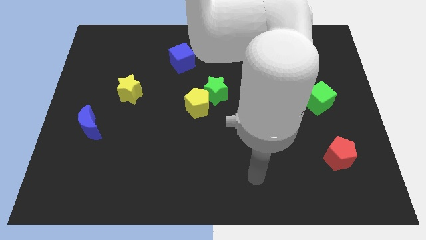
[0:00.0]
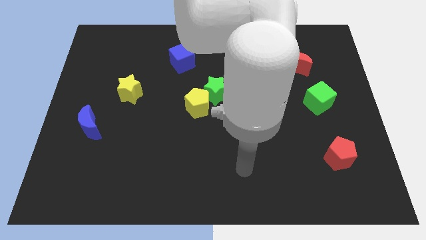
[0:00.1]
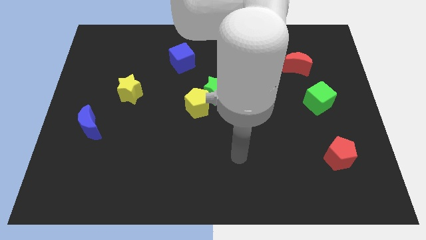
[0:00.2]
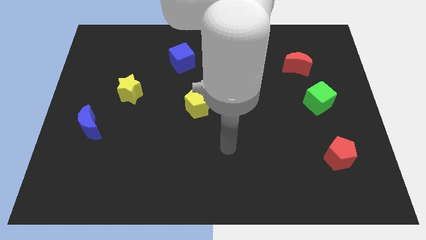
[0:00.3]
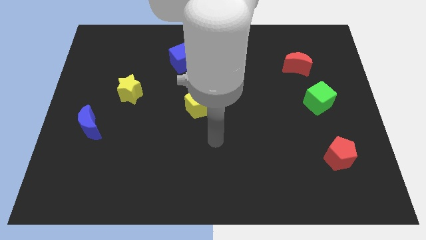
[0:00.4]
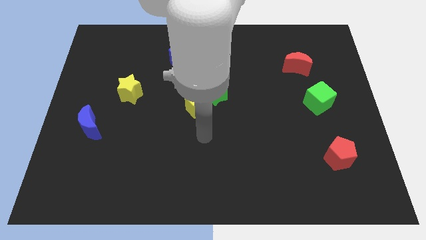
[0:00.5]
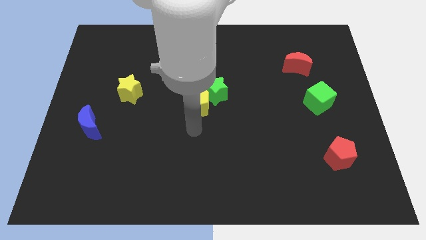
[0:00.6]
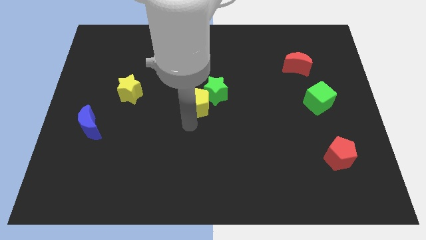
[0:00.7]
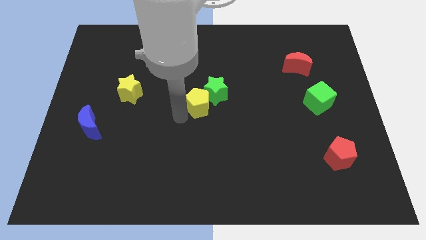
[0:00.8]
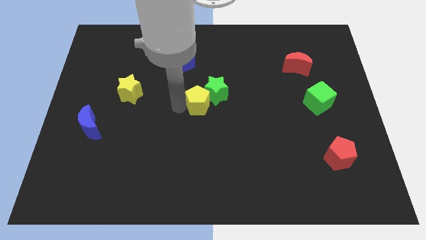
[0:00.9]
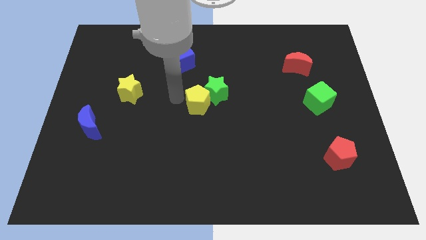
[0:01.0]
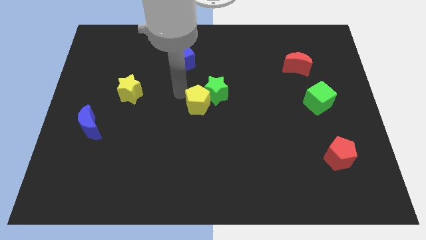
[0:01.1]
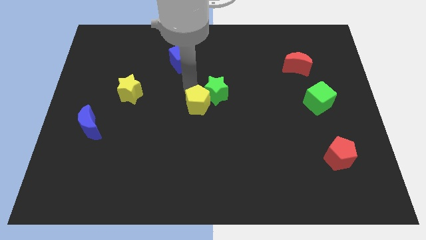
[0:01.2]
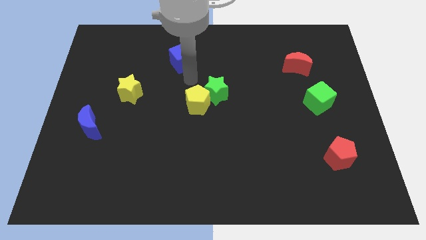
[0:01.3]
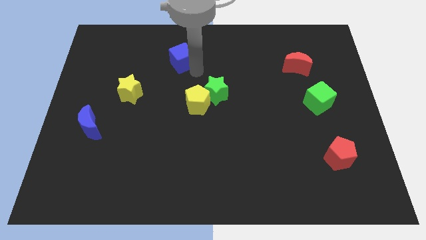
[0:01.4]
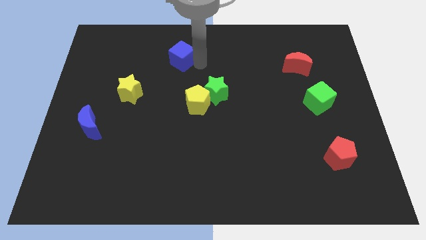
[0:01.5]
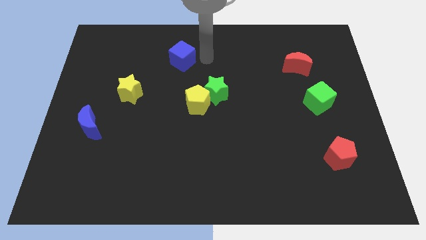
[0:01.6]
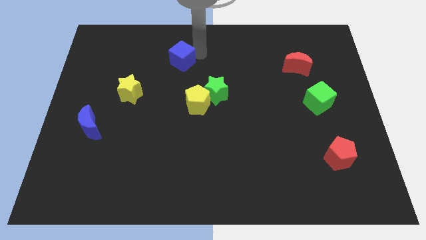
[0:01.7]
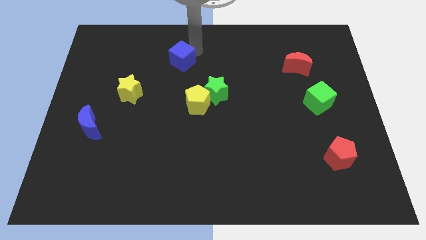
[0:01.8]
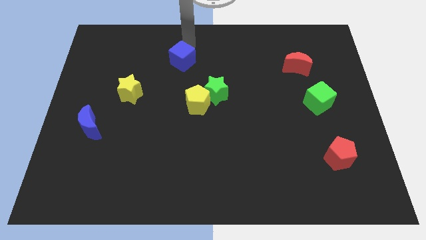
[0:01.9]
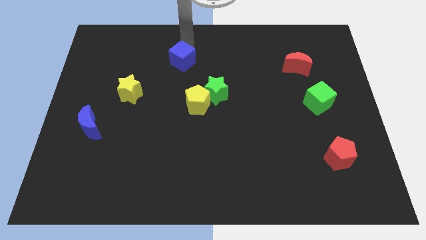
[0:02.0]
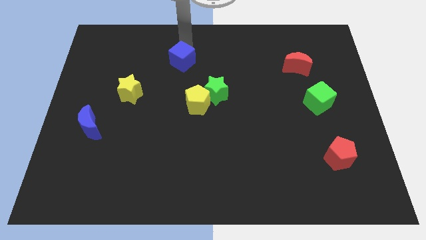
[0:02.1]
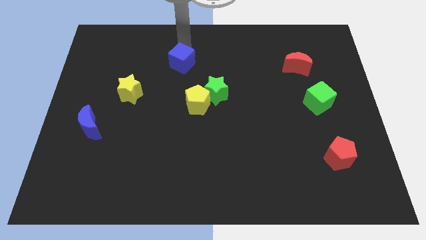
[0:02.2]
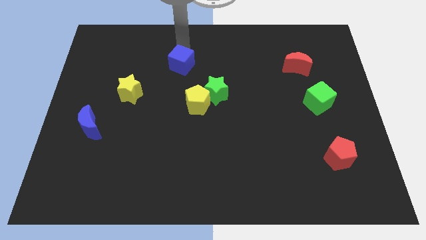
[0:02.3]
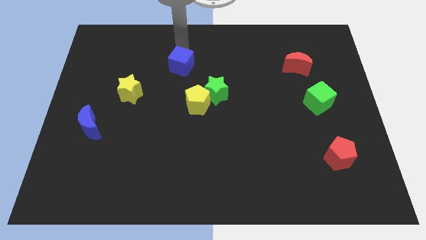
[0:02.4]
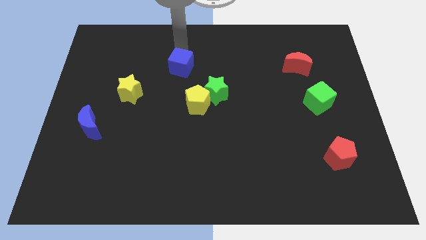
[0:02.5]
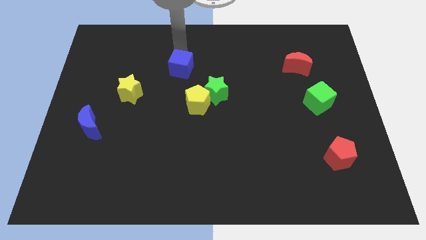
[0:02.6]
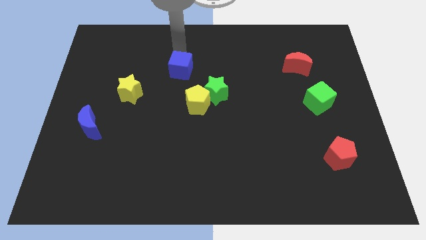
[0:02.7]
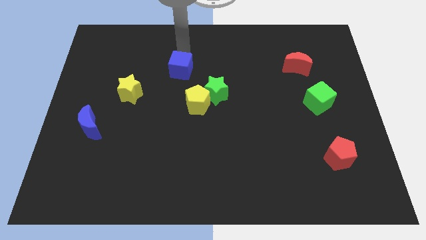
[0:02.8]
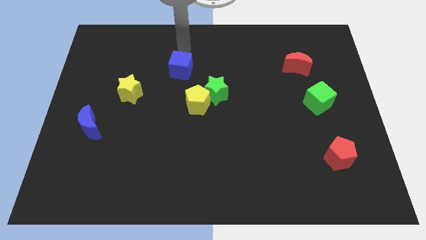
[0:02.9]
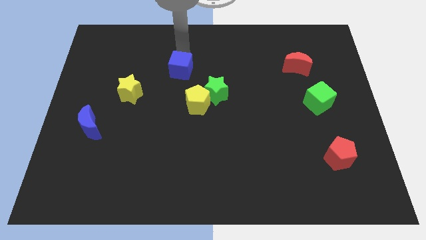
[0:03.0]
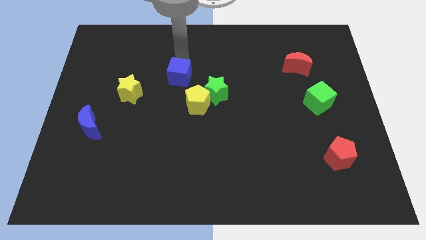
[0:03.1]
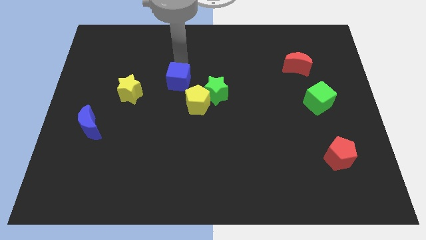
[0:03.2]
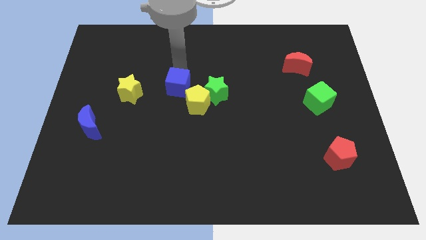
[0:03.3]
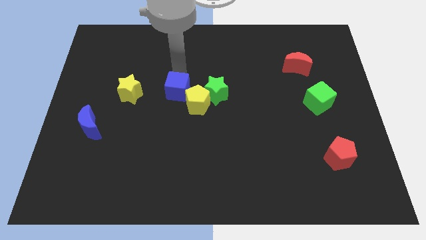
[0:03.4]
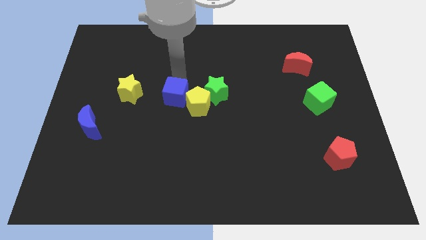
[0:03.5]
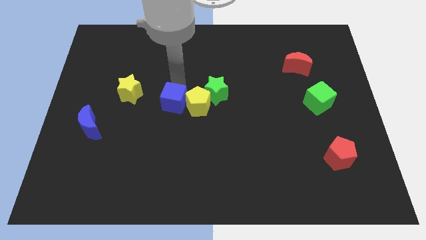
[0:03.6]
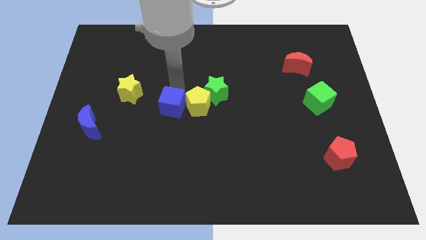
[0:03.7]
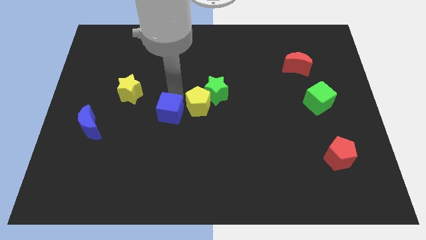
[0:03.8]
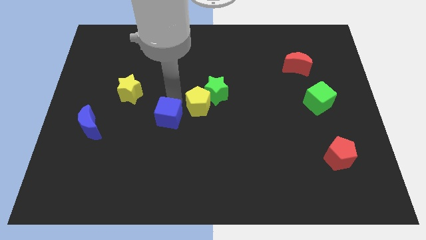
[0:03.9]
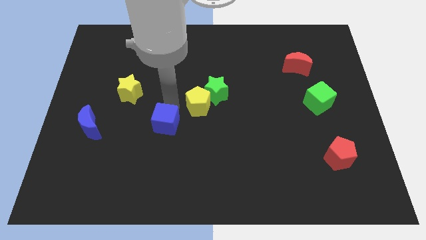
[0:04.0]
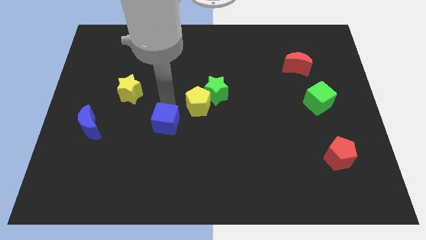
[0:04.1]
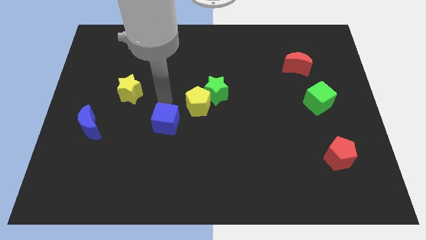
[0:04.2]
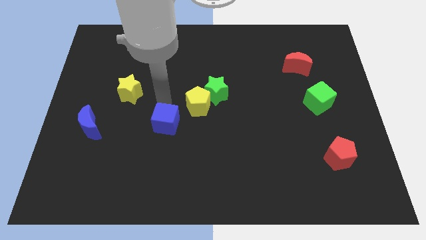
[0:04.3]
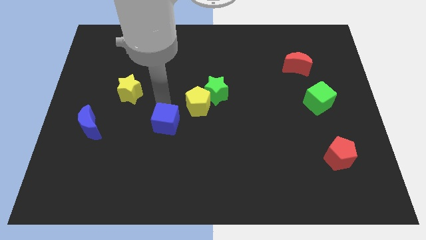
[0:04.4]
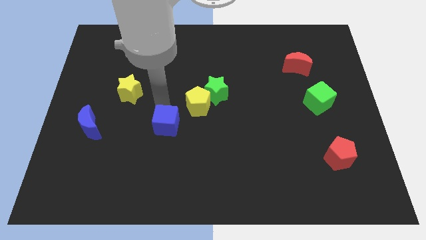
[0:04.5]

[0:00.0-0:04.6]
move the blue cube downwards

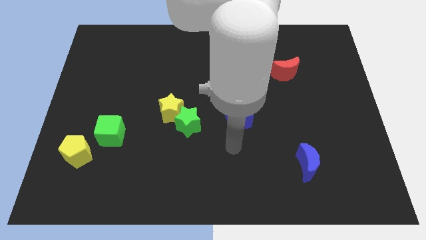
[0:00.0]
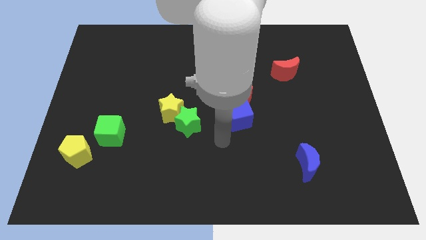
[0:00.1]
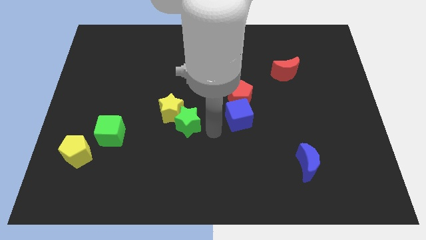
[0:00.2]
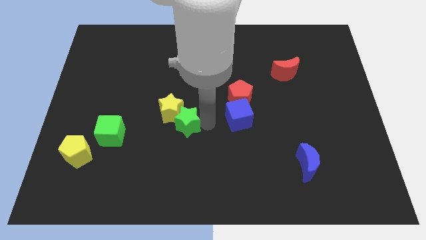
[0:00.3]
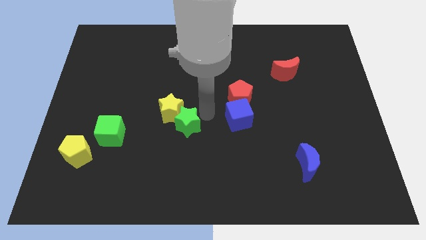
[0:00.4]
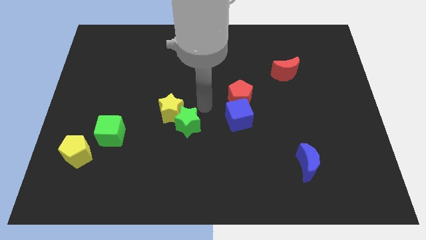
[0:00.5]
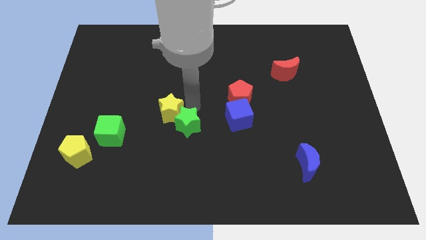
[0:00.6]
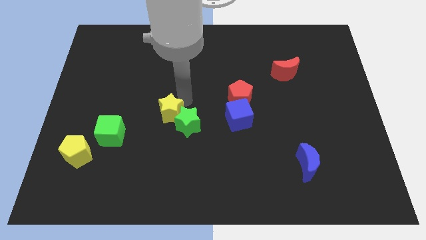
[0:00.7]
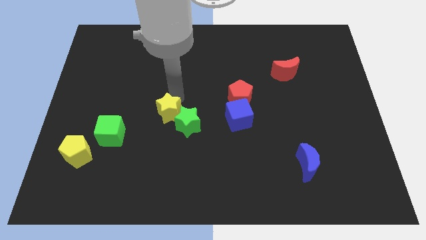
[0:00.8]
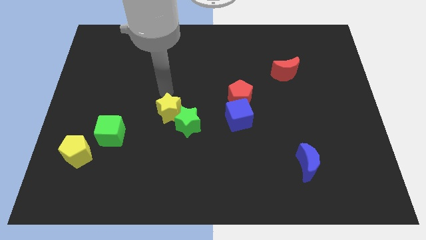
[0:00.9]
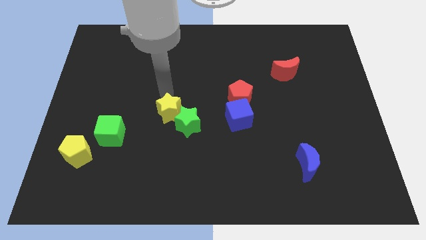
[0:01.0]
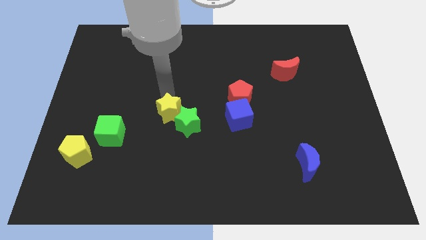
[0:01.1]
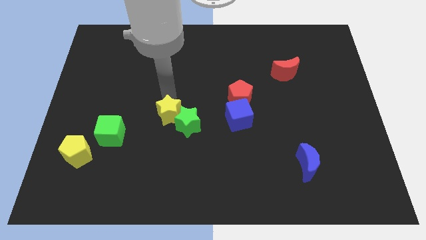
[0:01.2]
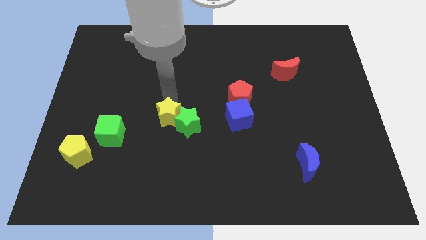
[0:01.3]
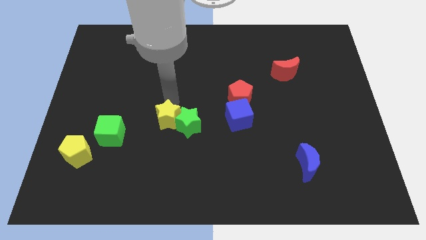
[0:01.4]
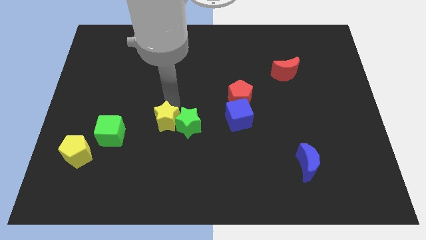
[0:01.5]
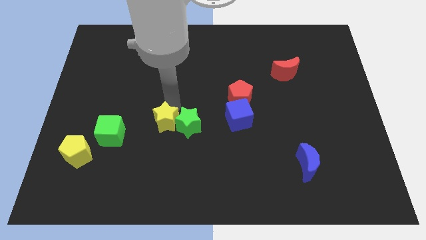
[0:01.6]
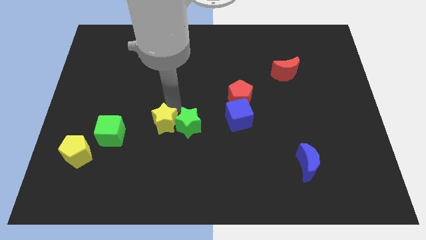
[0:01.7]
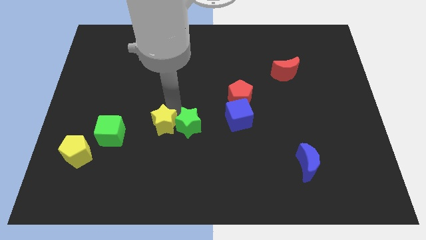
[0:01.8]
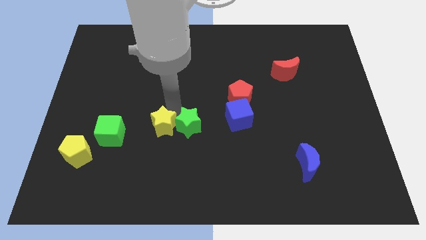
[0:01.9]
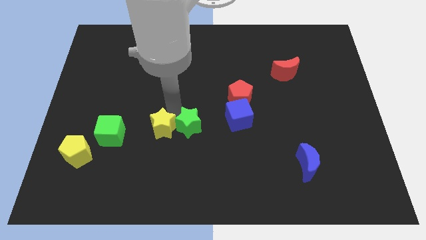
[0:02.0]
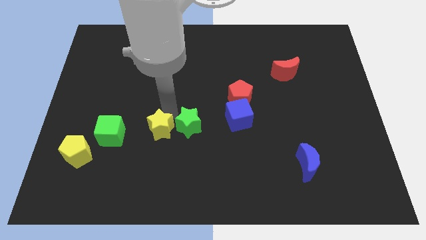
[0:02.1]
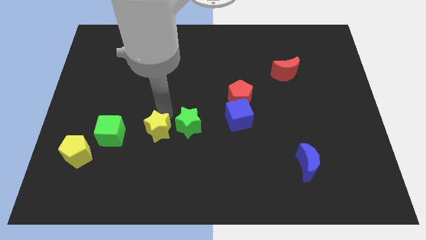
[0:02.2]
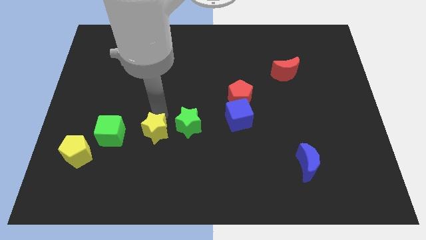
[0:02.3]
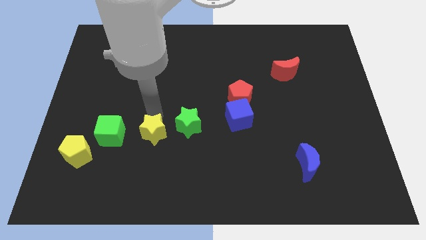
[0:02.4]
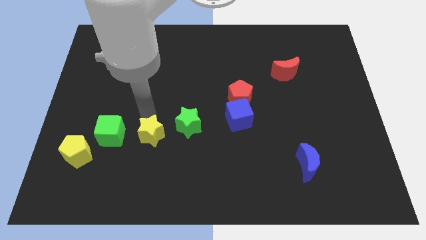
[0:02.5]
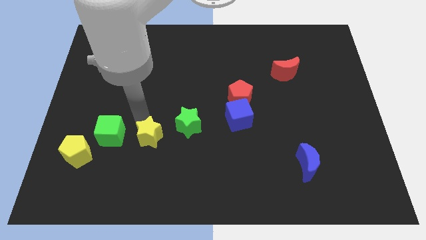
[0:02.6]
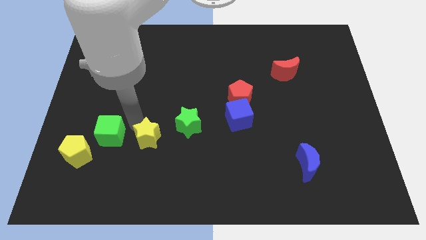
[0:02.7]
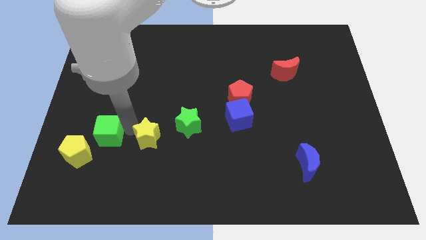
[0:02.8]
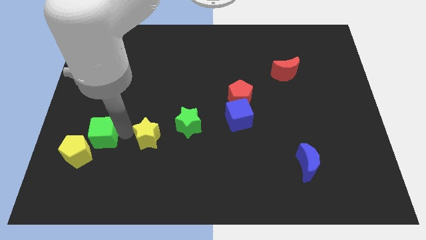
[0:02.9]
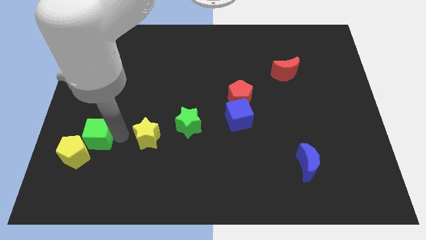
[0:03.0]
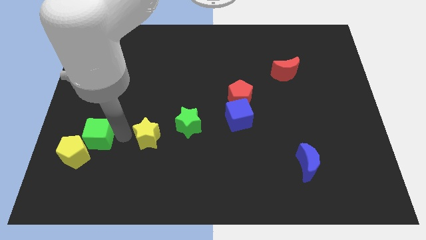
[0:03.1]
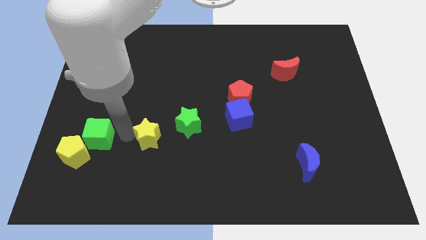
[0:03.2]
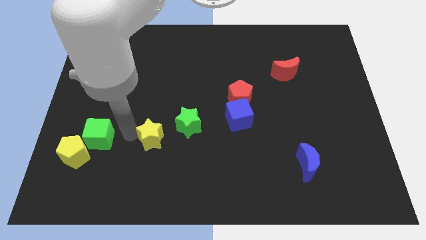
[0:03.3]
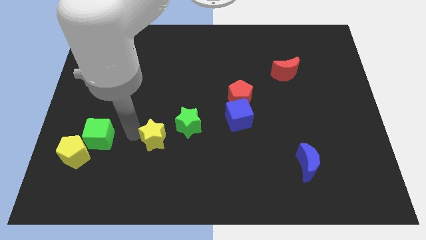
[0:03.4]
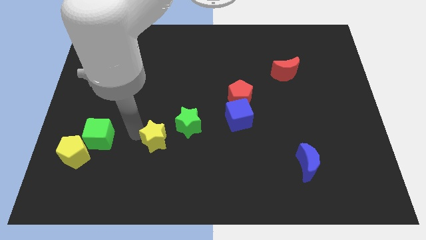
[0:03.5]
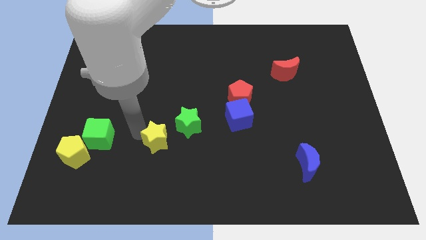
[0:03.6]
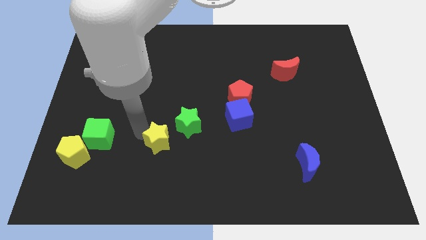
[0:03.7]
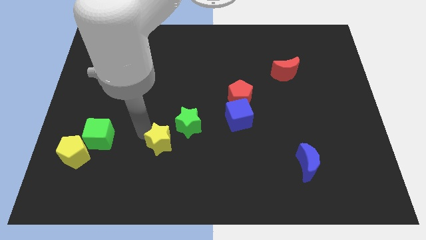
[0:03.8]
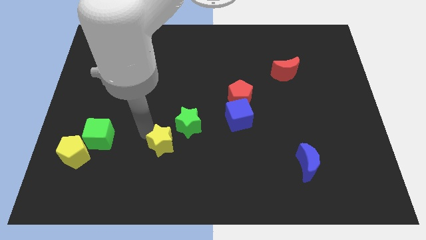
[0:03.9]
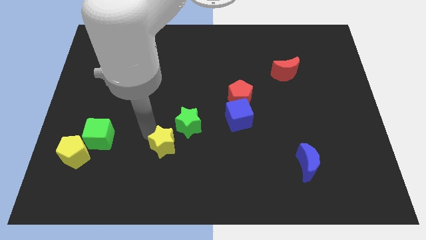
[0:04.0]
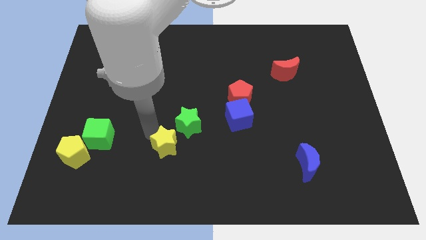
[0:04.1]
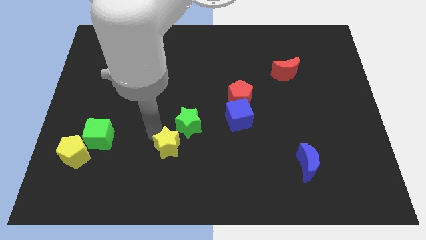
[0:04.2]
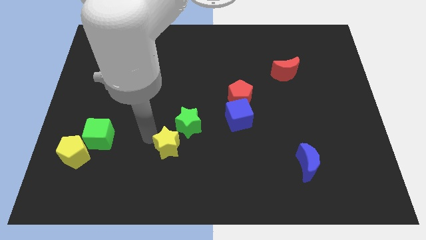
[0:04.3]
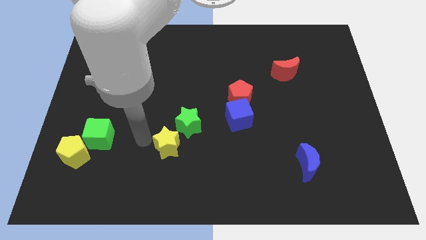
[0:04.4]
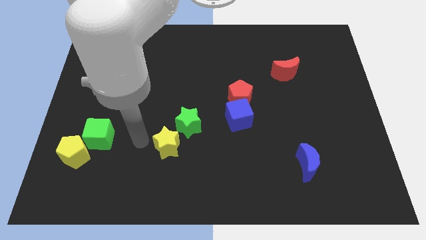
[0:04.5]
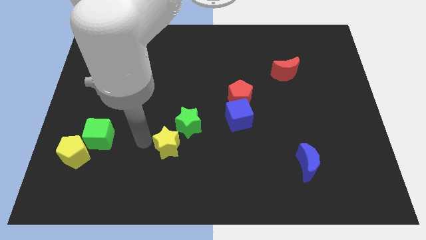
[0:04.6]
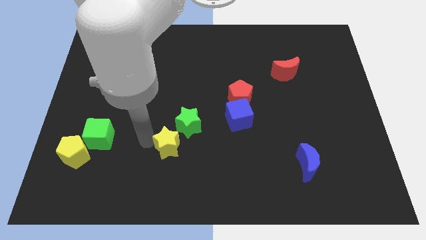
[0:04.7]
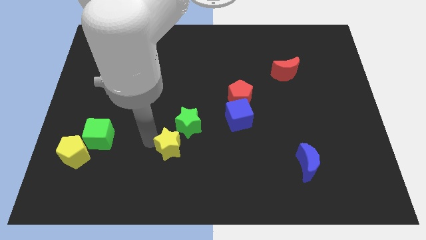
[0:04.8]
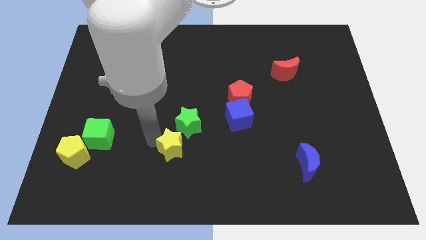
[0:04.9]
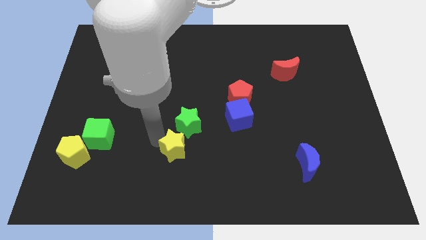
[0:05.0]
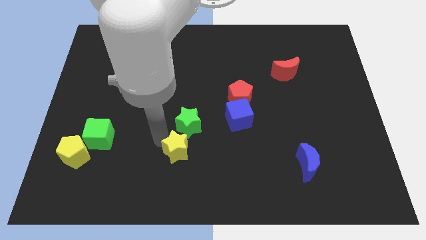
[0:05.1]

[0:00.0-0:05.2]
push the yellow star a bit diagonally down and right
